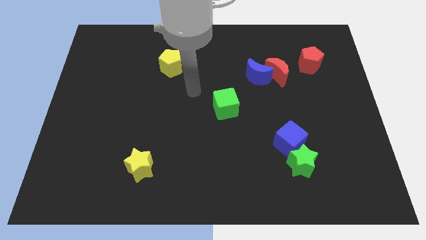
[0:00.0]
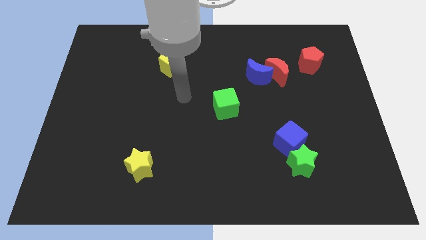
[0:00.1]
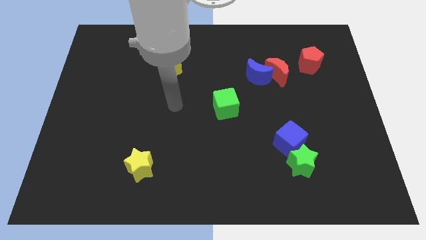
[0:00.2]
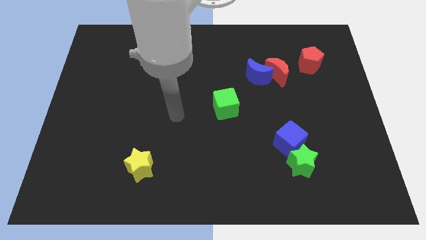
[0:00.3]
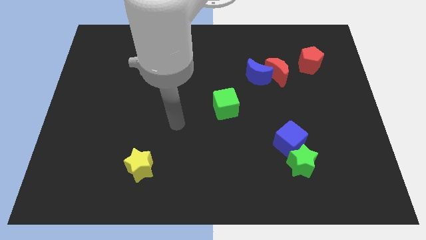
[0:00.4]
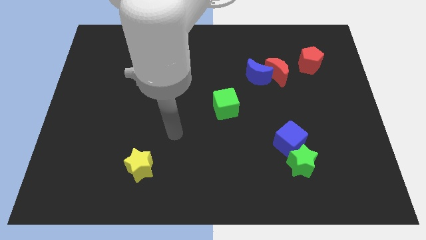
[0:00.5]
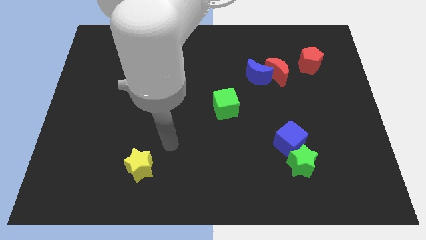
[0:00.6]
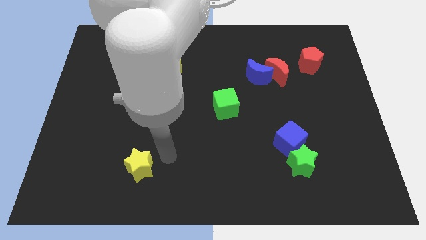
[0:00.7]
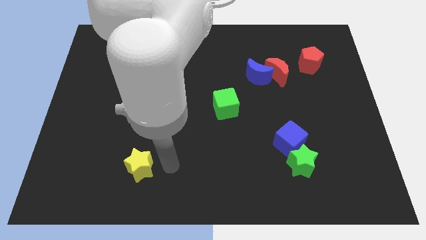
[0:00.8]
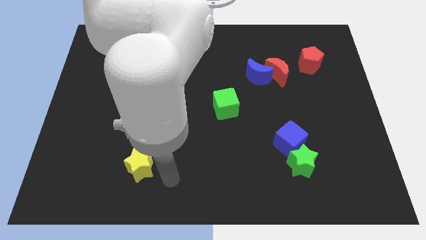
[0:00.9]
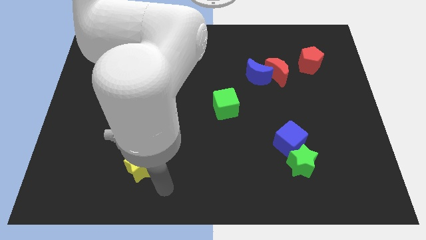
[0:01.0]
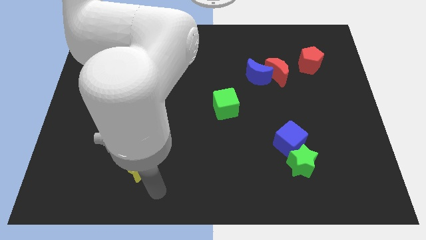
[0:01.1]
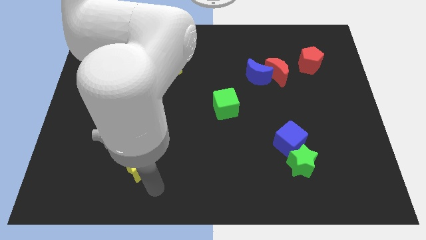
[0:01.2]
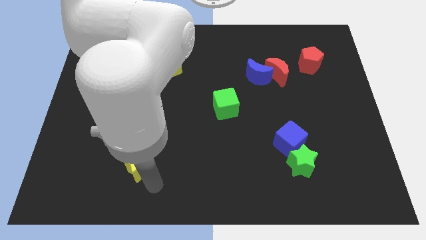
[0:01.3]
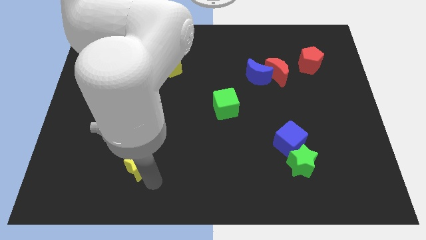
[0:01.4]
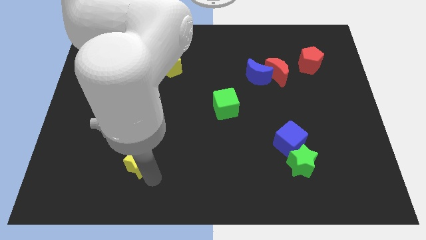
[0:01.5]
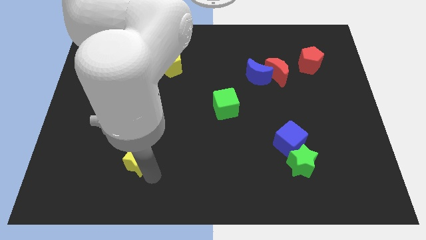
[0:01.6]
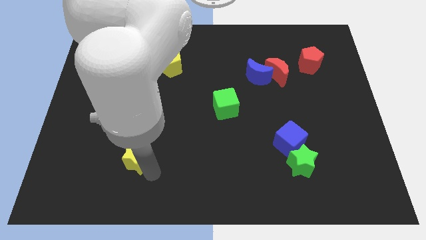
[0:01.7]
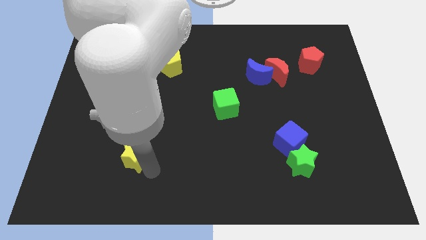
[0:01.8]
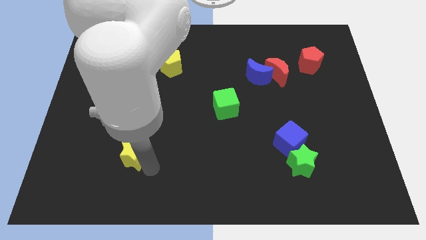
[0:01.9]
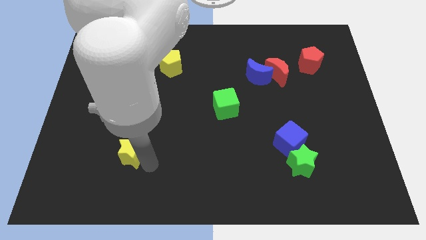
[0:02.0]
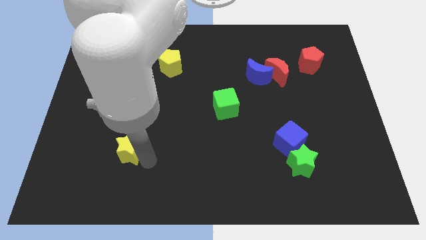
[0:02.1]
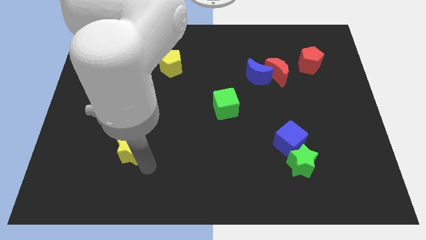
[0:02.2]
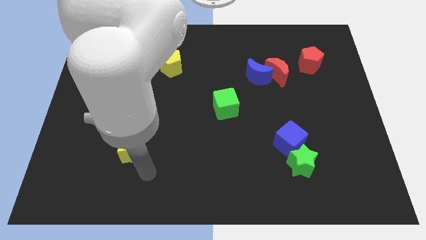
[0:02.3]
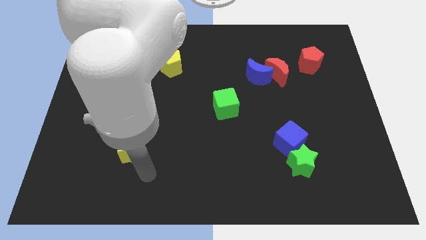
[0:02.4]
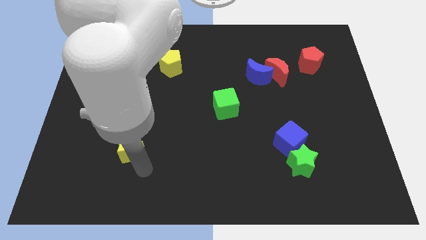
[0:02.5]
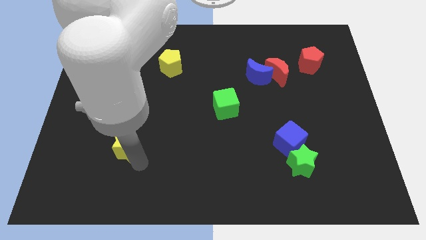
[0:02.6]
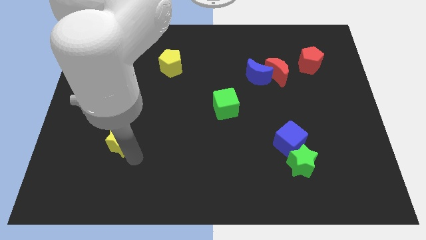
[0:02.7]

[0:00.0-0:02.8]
move the yellow star upwards and left slightly

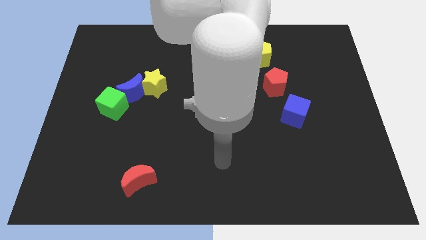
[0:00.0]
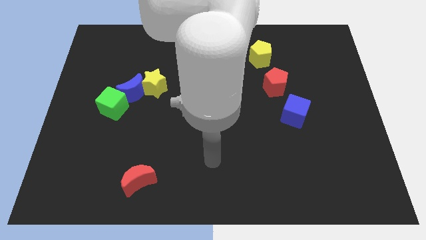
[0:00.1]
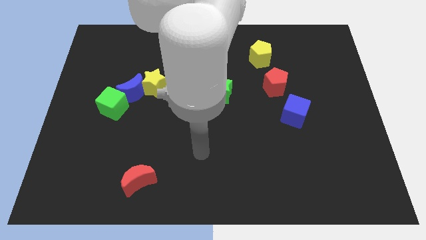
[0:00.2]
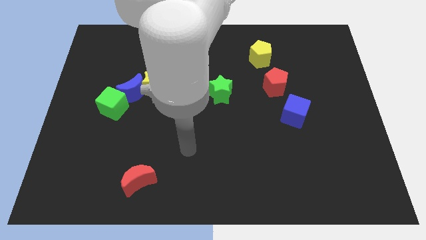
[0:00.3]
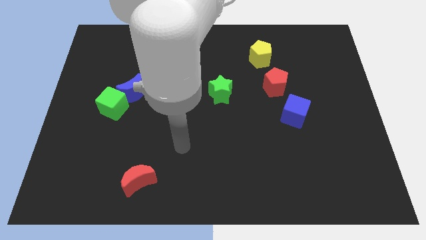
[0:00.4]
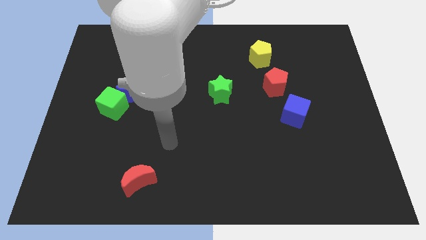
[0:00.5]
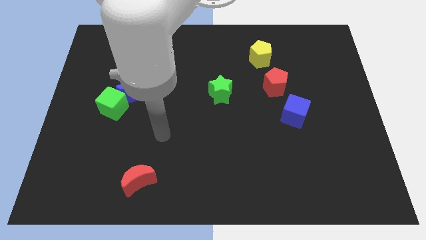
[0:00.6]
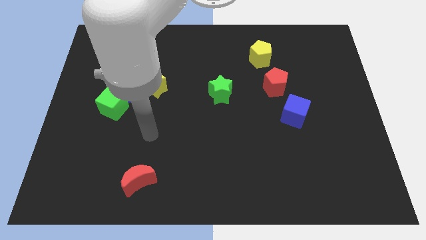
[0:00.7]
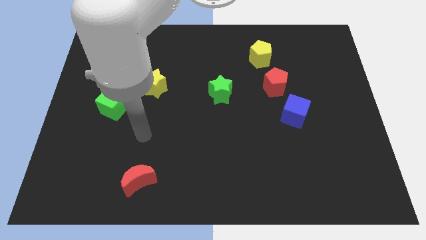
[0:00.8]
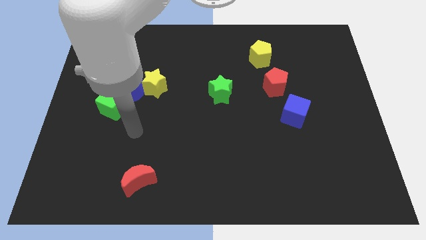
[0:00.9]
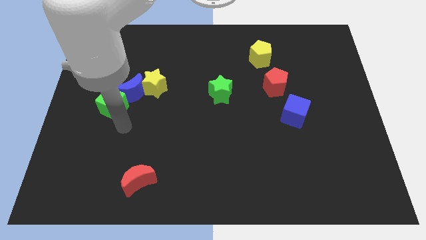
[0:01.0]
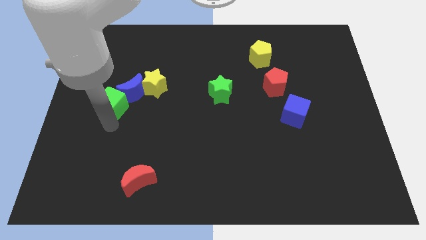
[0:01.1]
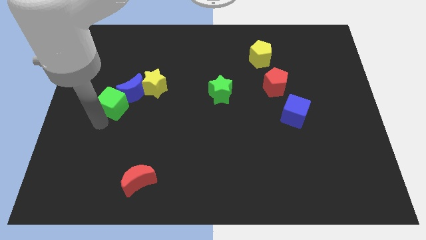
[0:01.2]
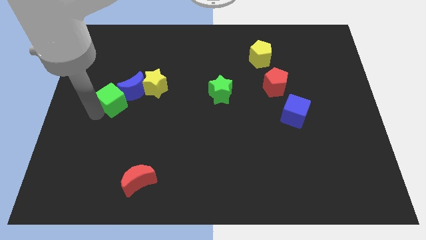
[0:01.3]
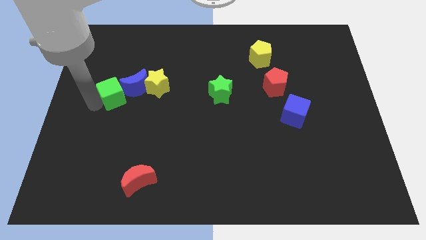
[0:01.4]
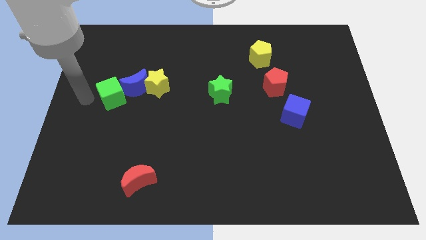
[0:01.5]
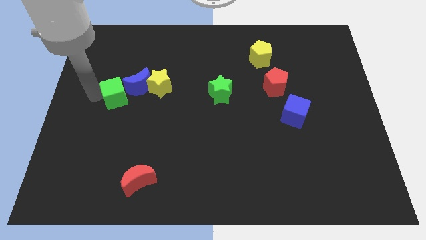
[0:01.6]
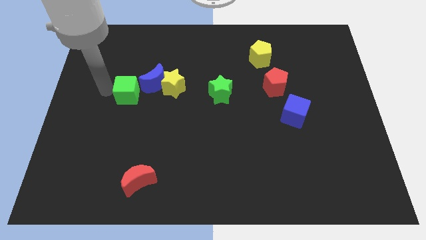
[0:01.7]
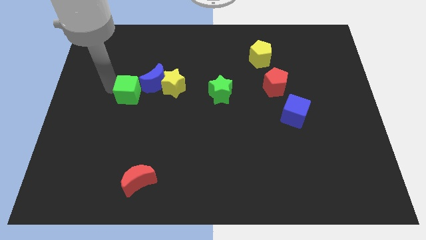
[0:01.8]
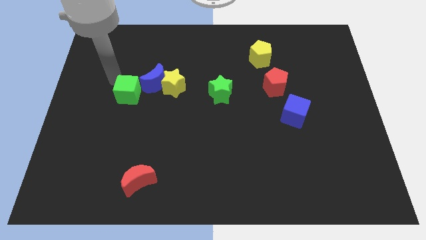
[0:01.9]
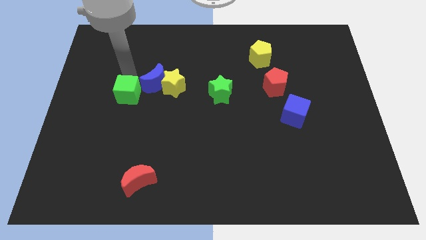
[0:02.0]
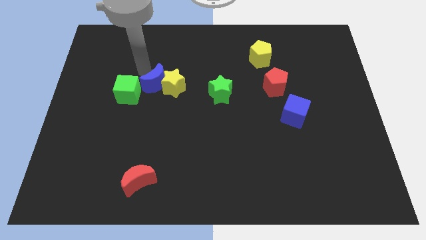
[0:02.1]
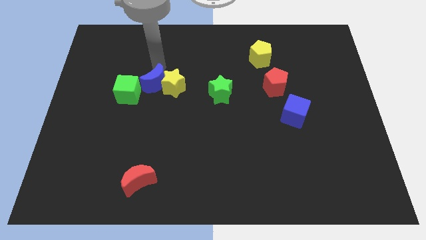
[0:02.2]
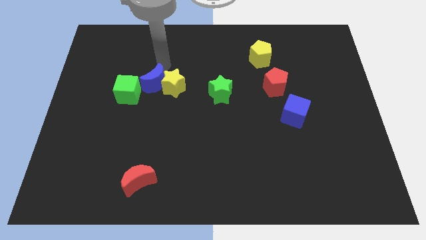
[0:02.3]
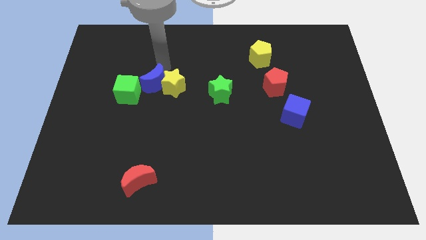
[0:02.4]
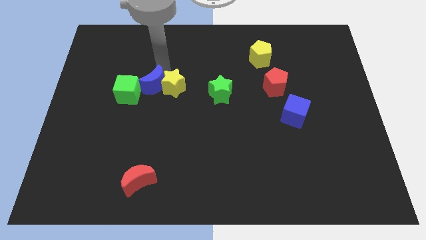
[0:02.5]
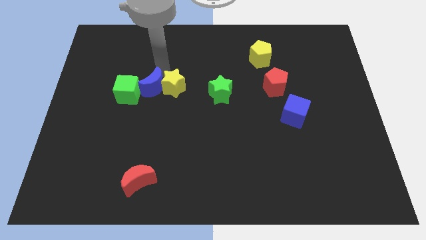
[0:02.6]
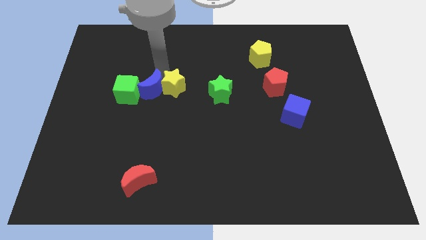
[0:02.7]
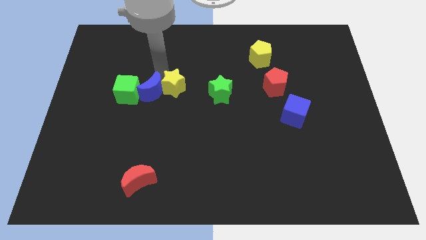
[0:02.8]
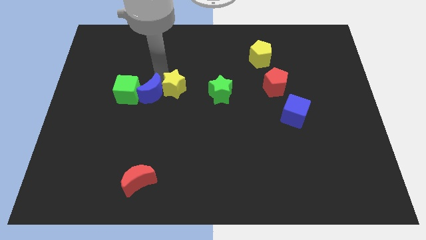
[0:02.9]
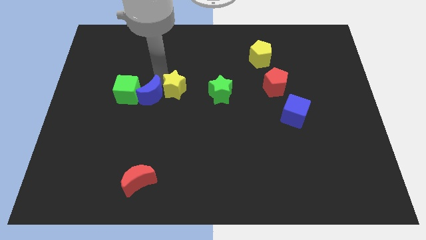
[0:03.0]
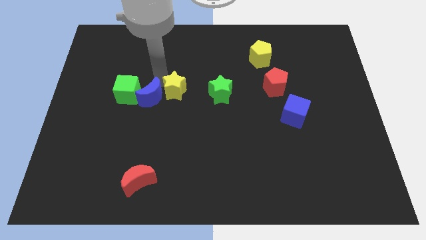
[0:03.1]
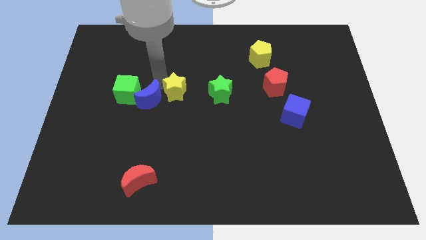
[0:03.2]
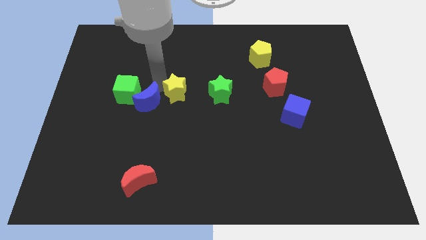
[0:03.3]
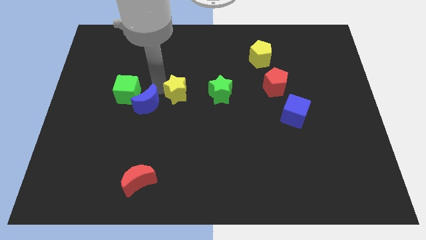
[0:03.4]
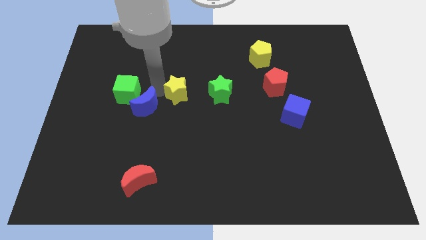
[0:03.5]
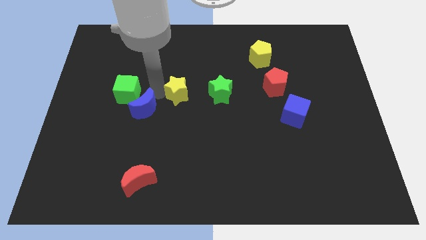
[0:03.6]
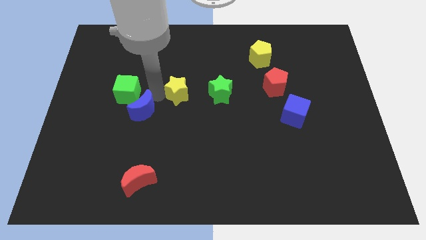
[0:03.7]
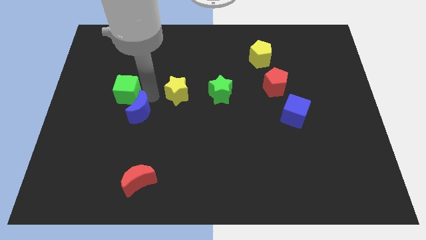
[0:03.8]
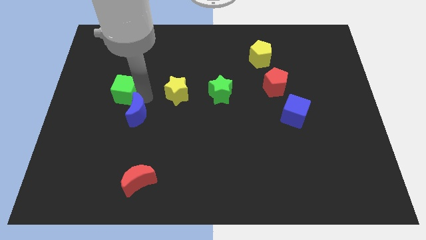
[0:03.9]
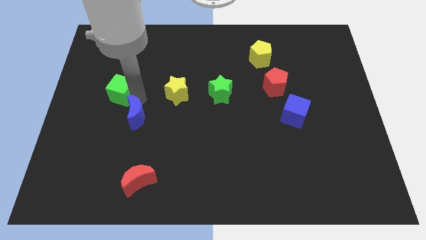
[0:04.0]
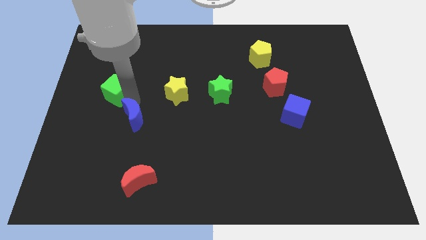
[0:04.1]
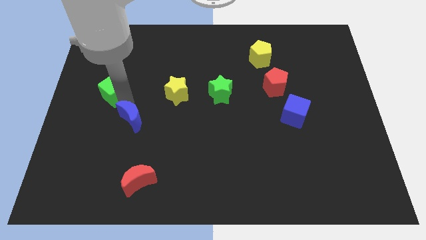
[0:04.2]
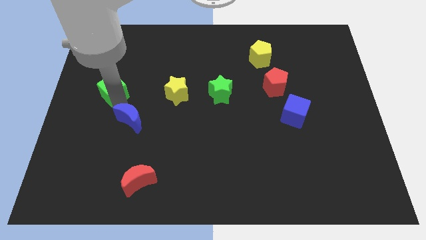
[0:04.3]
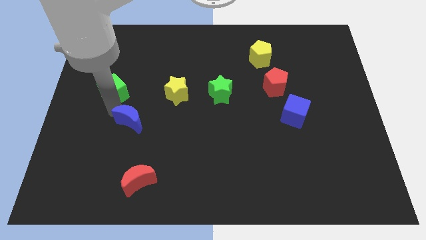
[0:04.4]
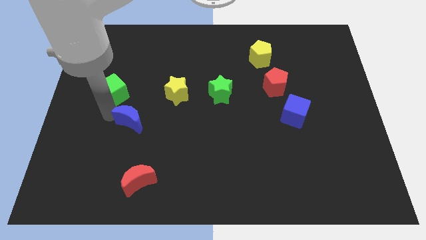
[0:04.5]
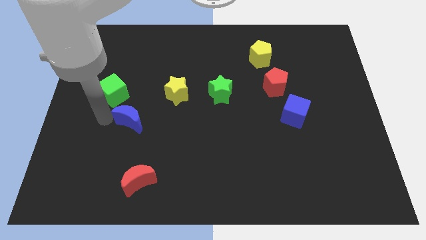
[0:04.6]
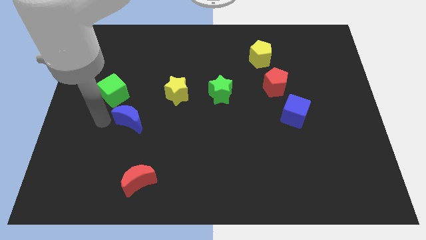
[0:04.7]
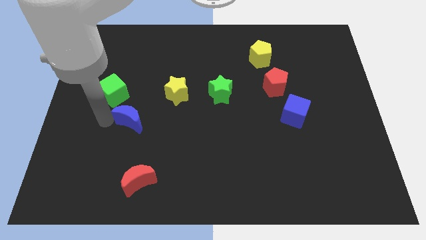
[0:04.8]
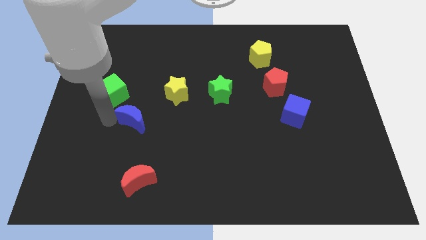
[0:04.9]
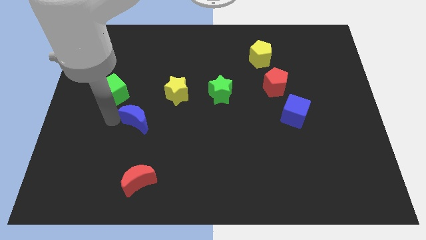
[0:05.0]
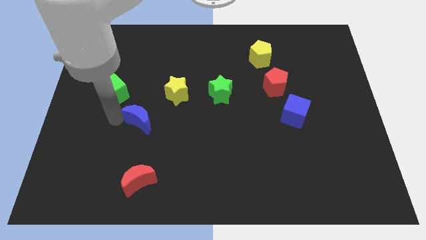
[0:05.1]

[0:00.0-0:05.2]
move the blue moon a little downwards and to the right
